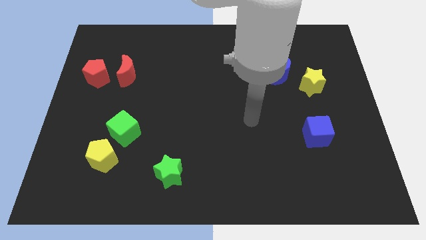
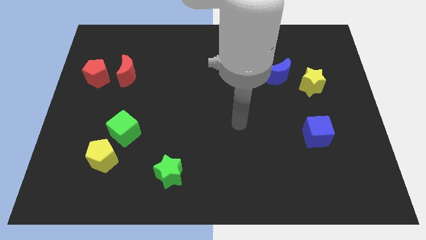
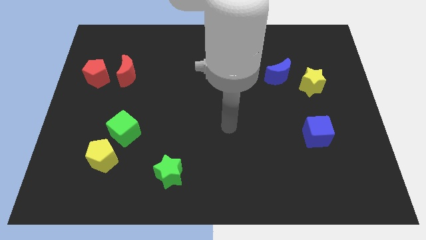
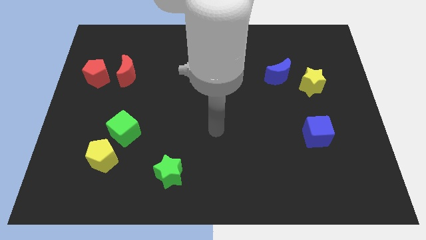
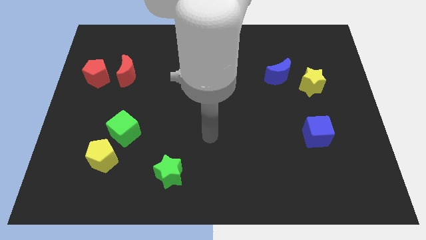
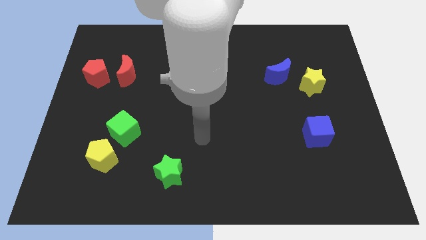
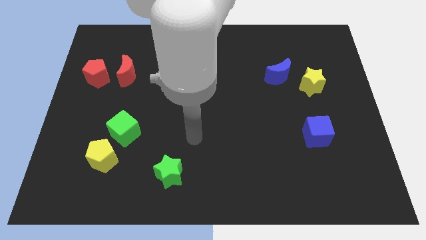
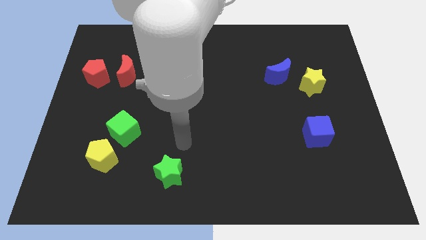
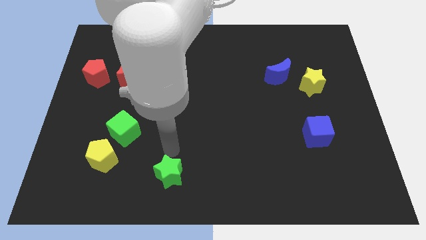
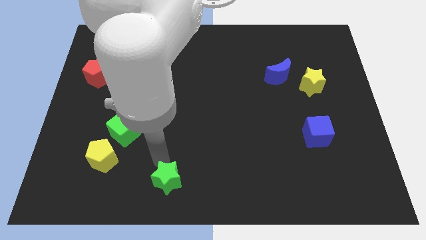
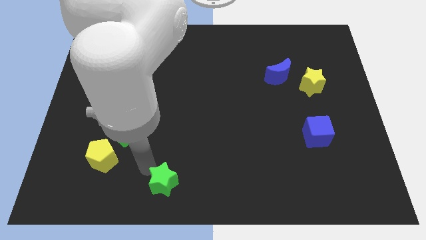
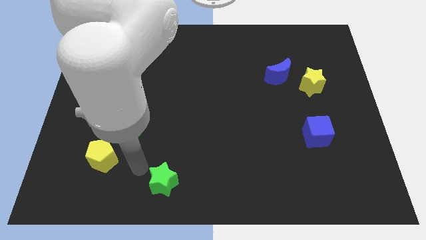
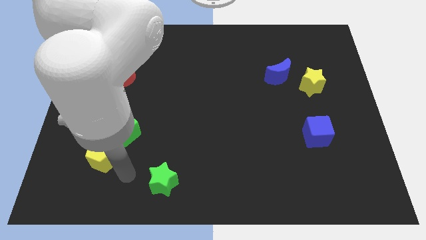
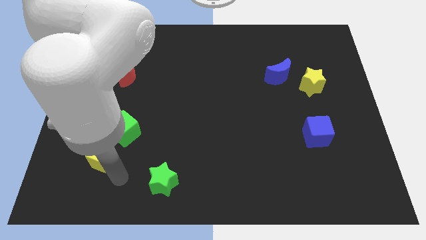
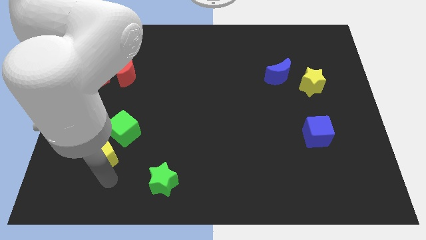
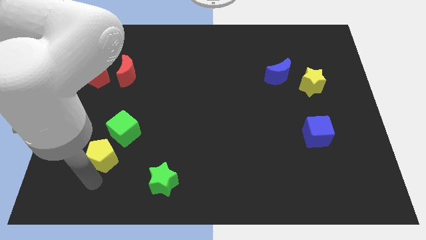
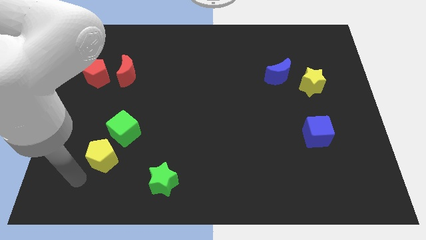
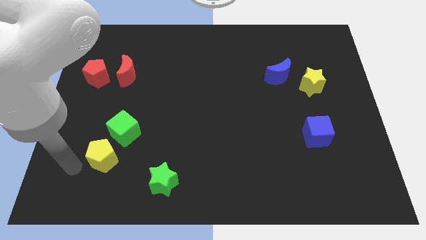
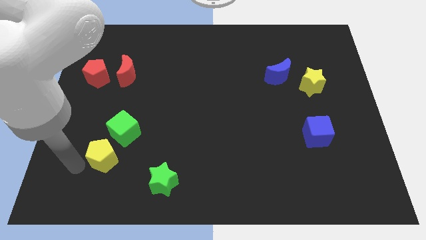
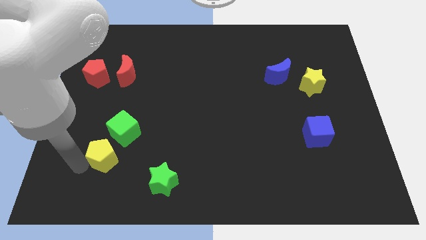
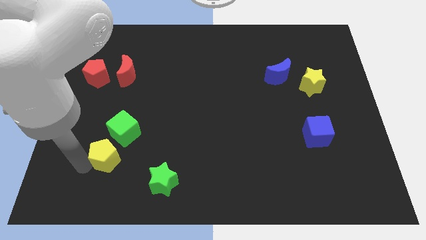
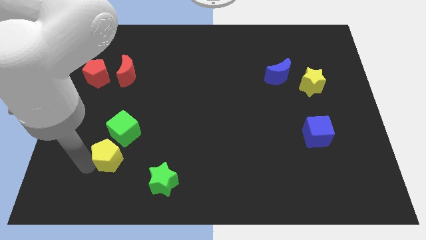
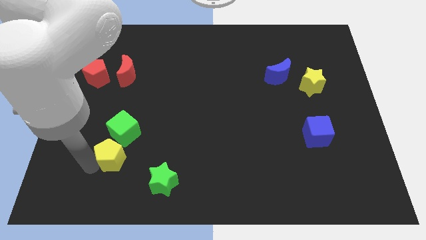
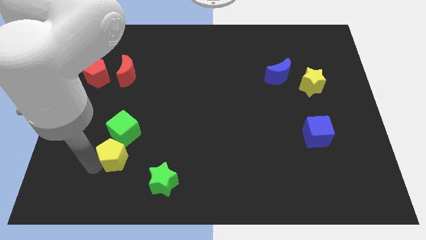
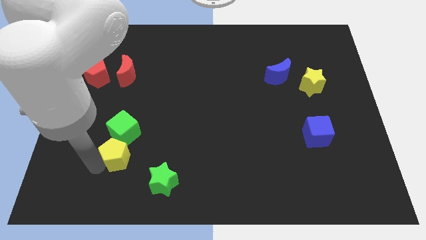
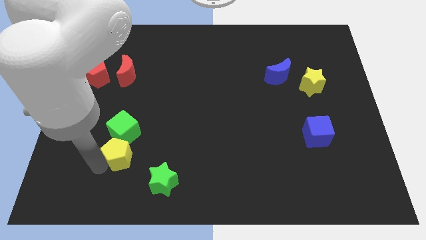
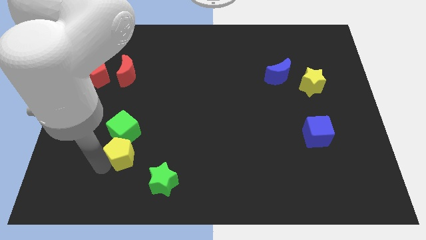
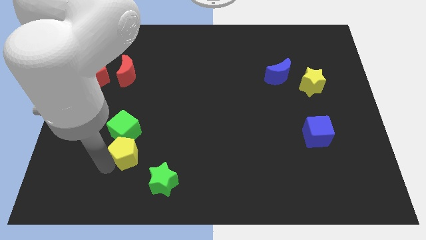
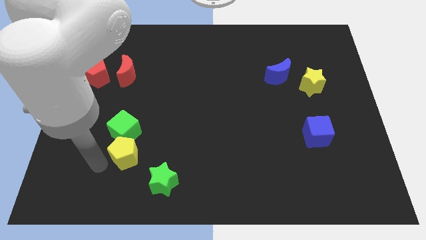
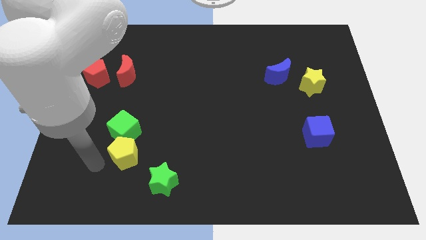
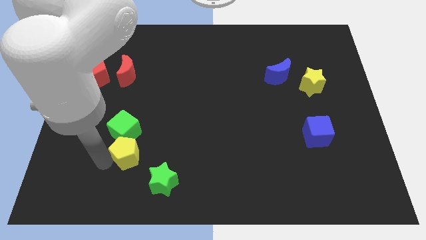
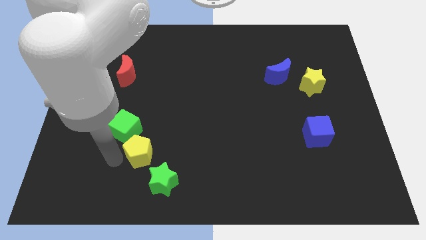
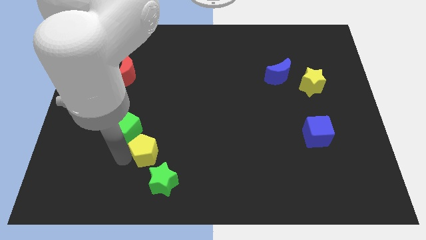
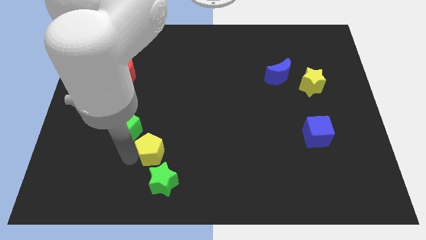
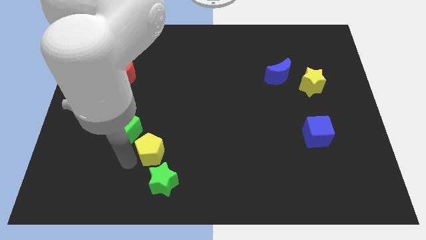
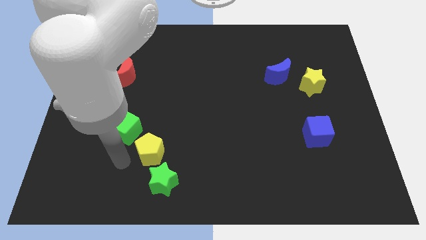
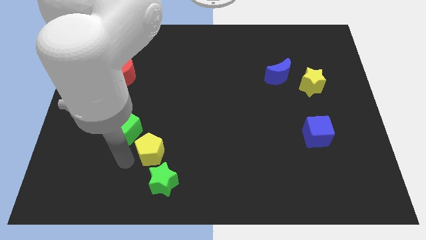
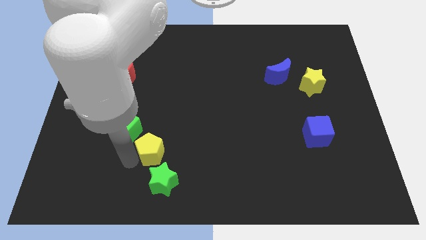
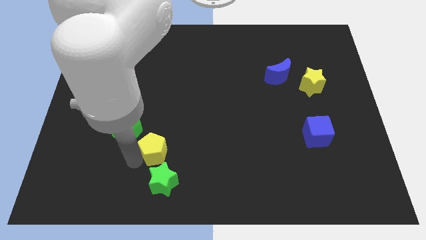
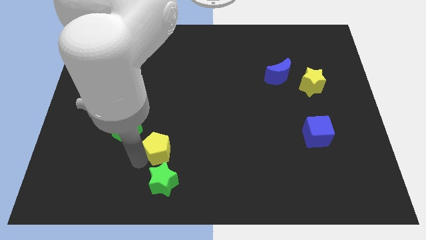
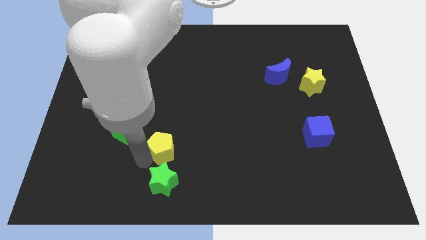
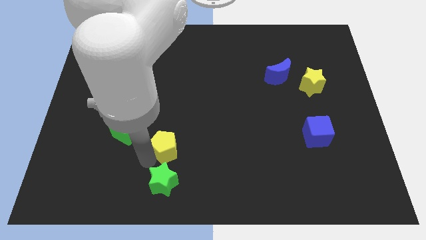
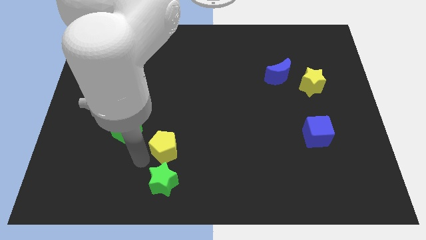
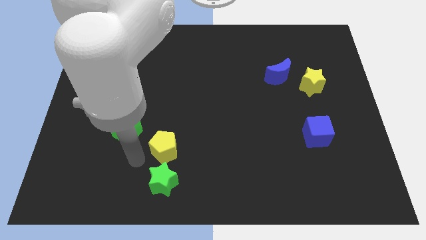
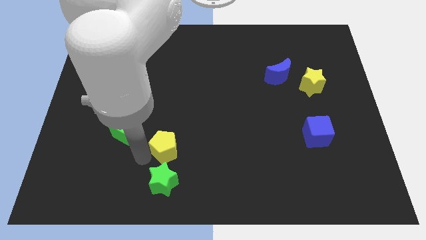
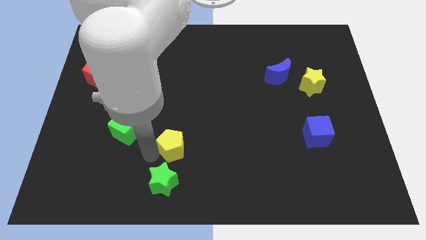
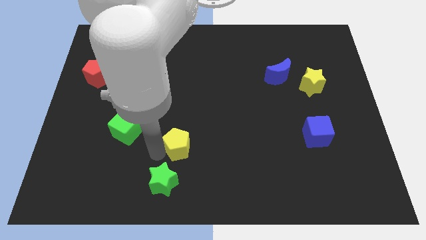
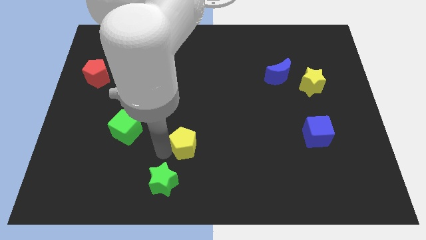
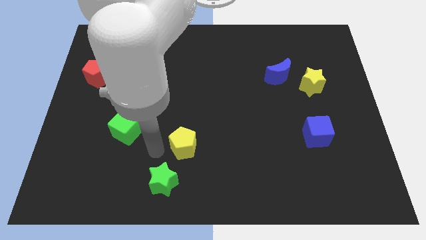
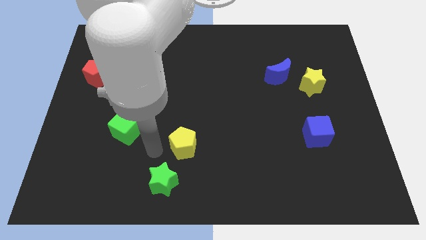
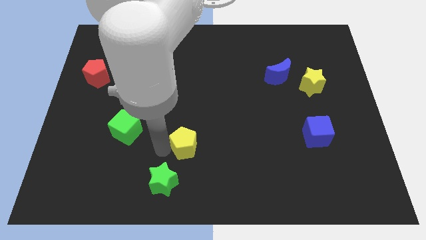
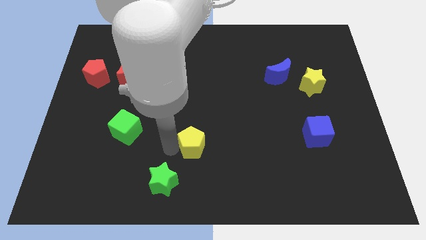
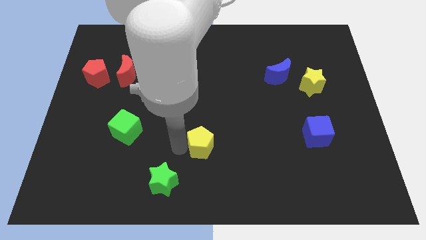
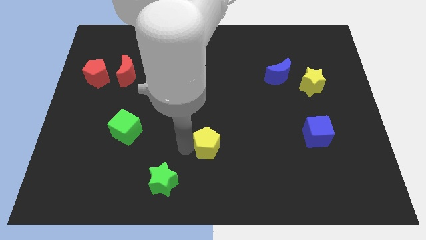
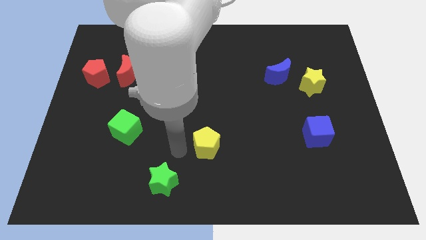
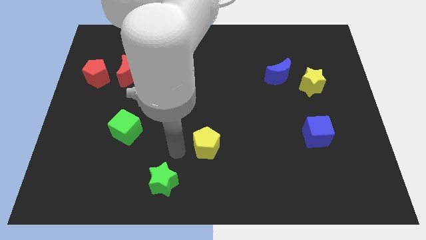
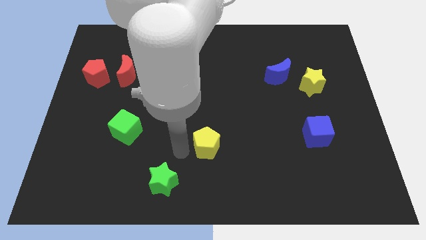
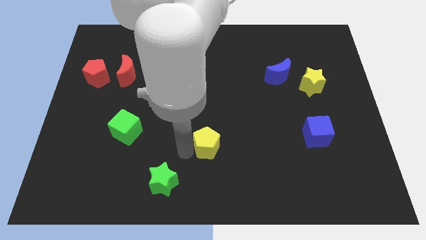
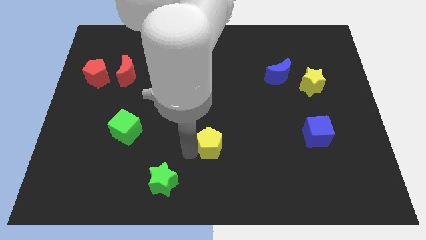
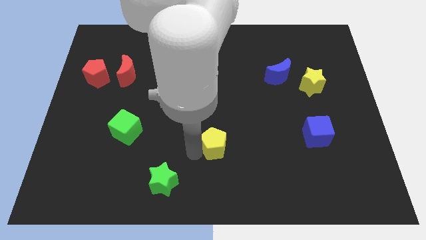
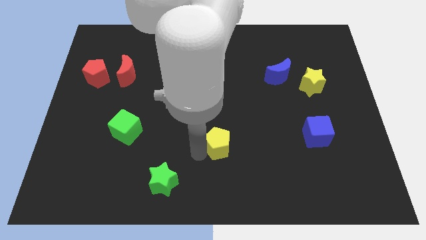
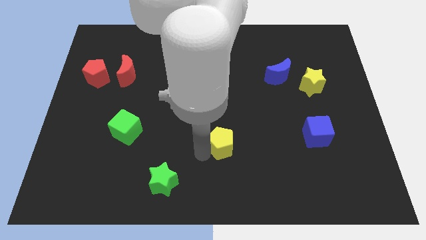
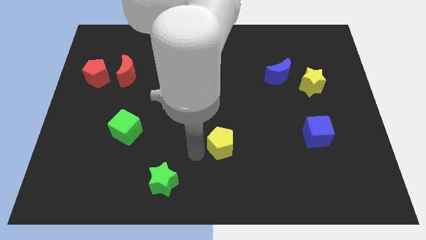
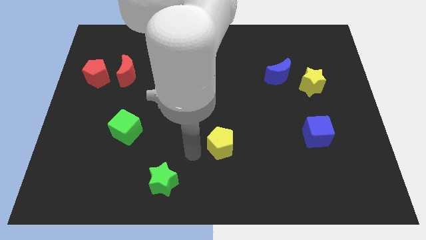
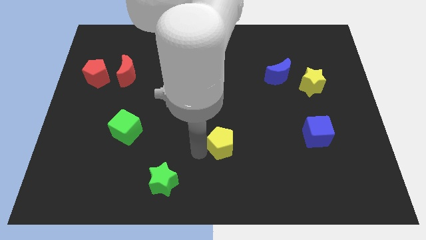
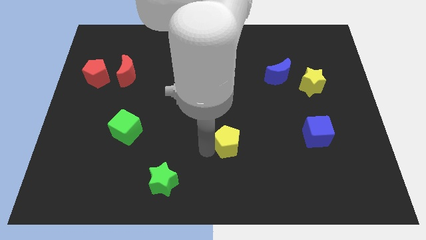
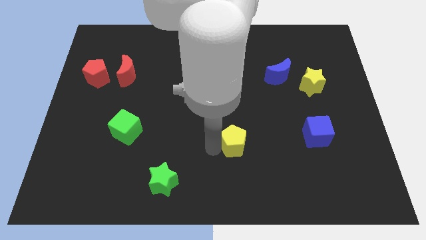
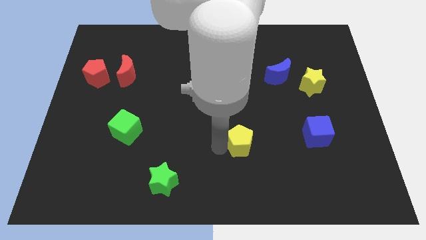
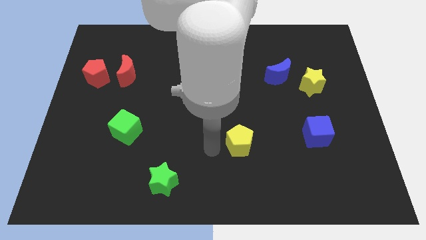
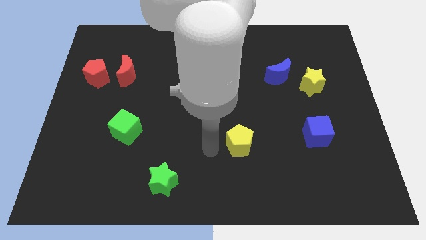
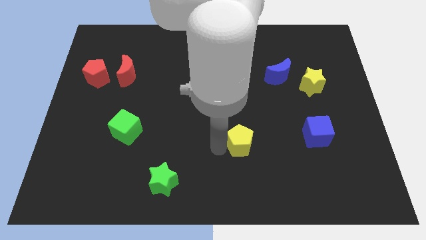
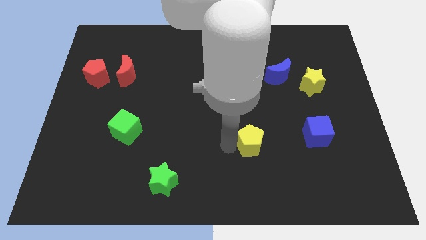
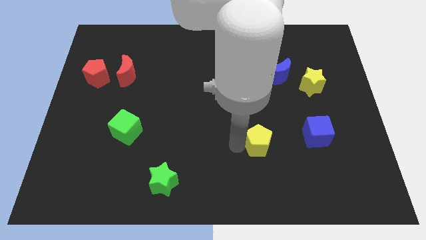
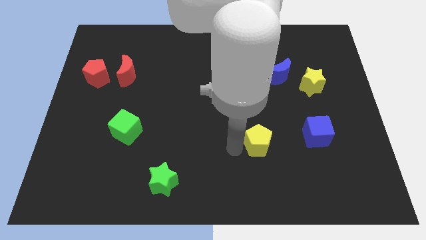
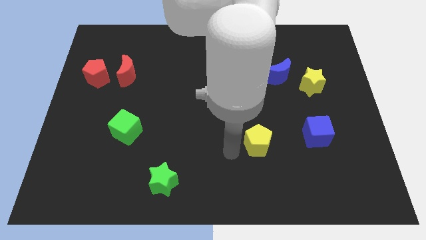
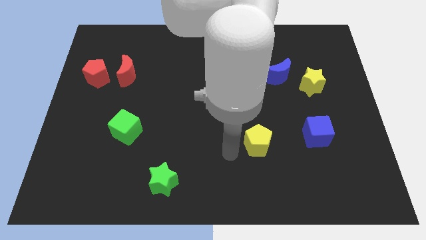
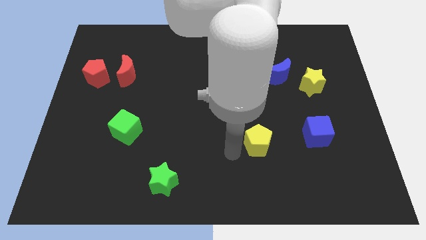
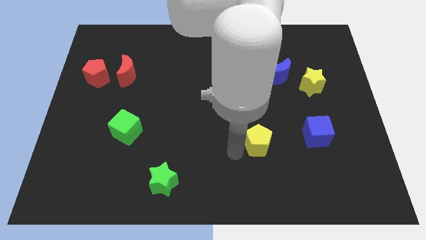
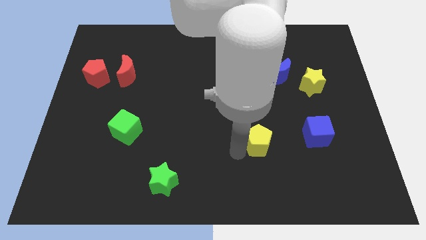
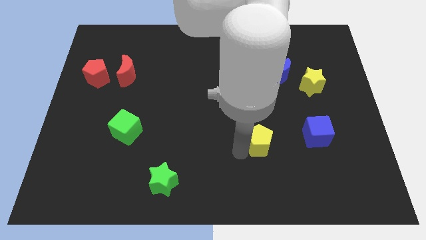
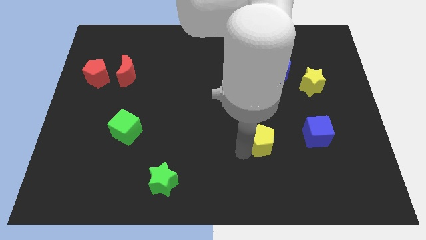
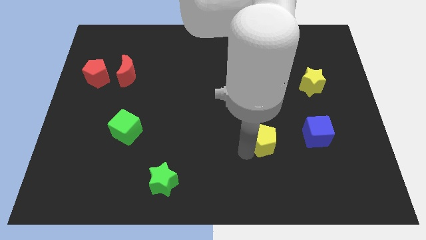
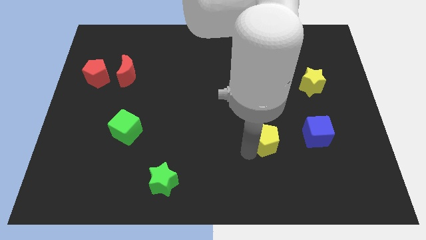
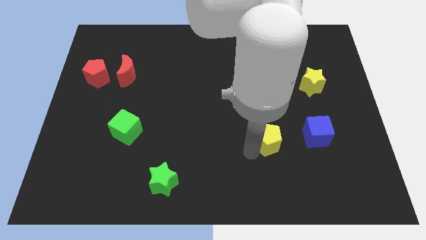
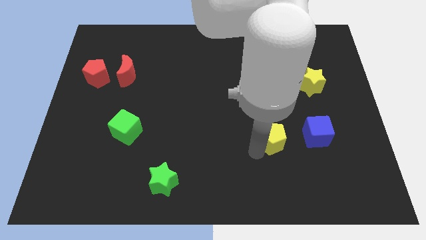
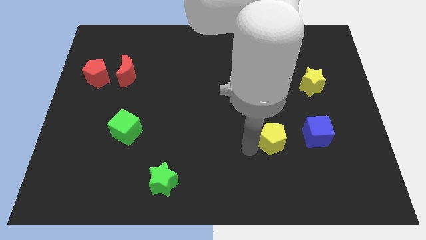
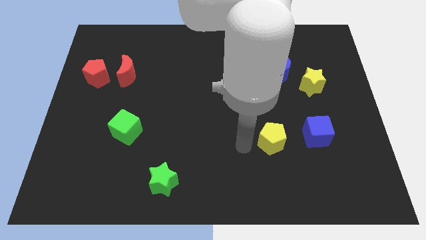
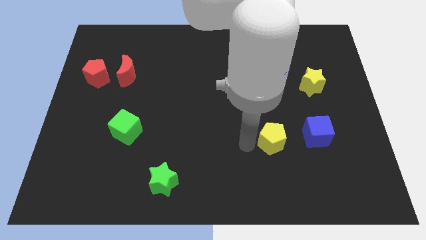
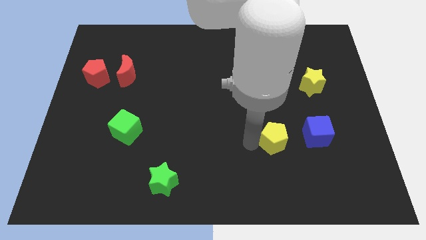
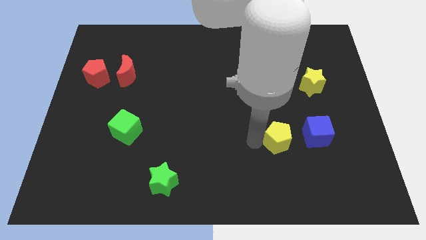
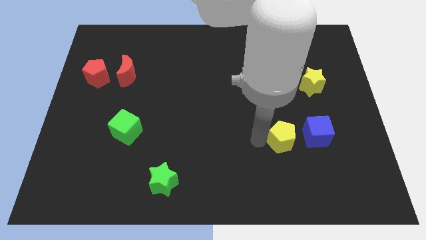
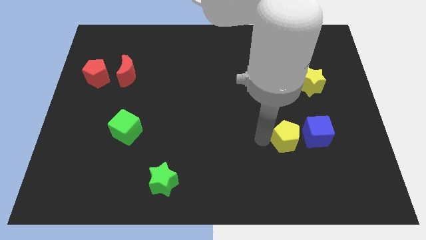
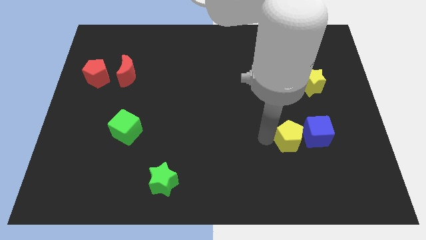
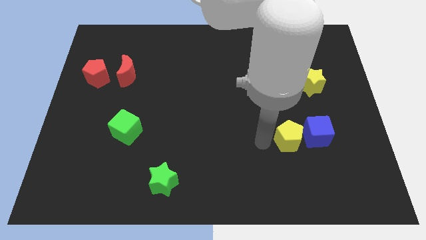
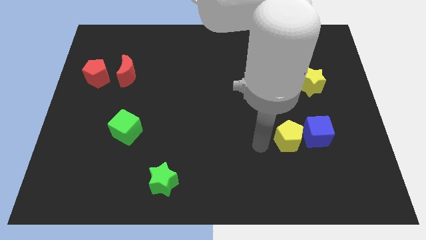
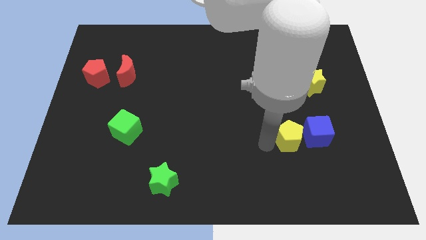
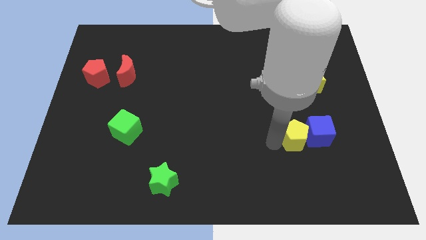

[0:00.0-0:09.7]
slide the yellow pentagon to the blue cube
